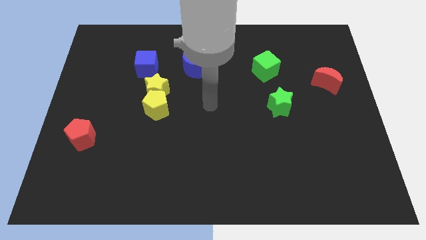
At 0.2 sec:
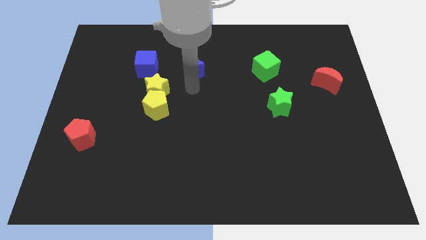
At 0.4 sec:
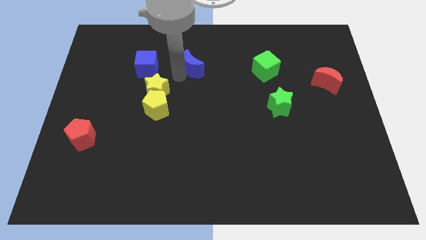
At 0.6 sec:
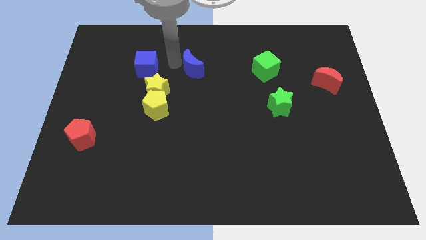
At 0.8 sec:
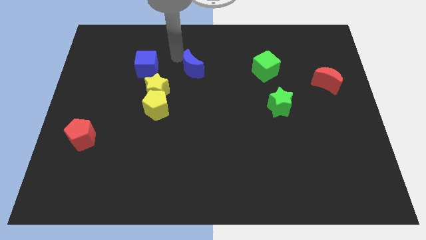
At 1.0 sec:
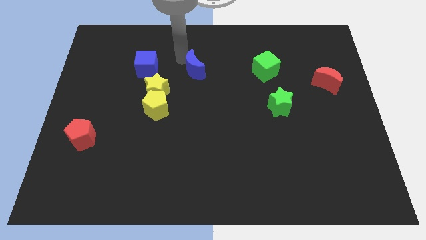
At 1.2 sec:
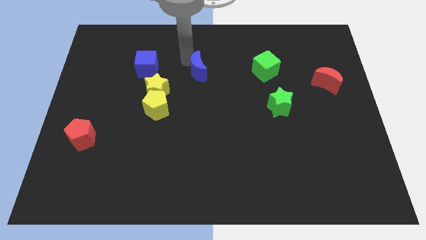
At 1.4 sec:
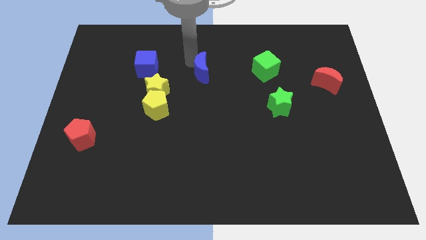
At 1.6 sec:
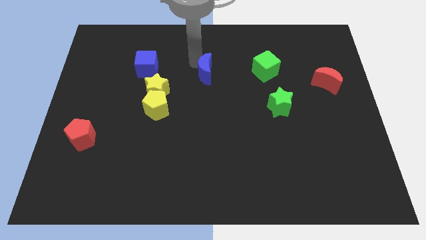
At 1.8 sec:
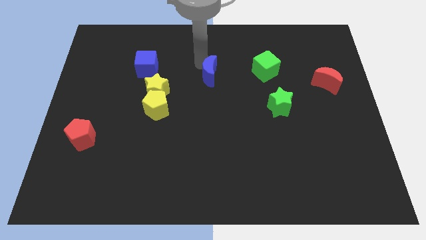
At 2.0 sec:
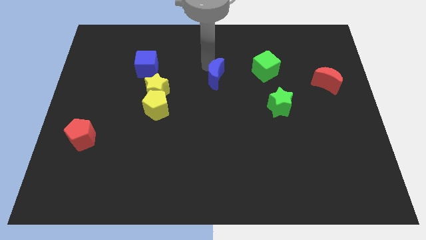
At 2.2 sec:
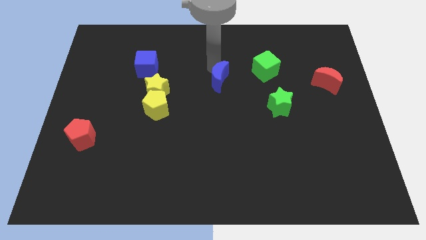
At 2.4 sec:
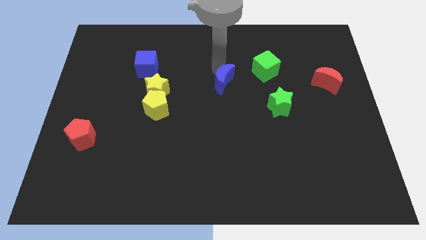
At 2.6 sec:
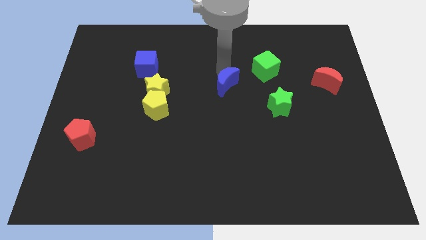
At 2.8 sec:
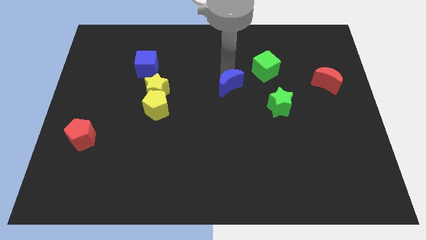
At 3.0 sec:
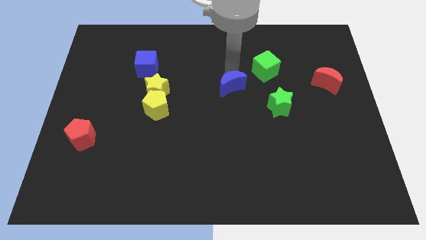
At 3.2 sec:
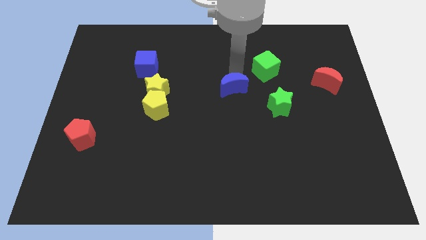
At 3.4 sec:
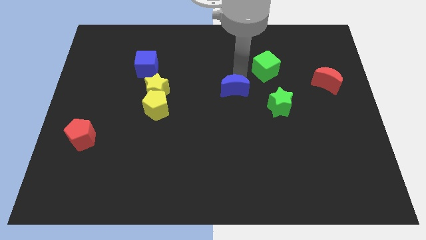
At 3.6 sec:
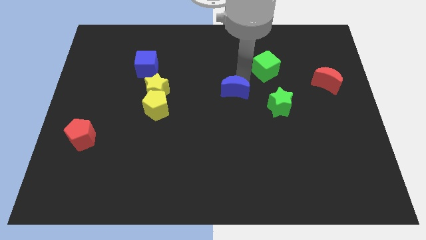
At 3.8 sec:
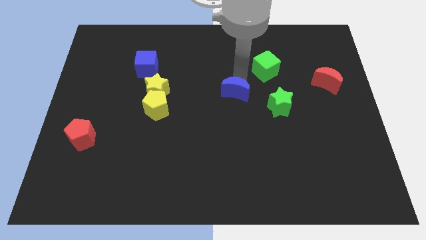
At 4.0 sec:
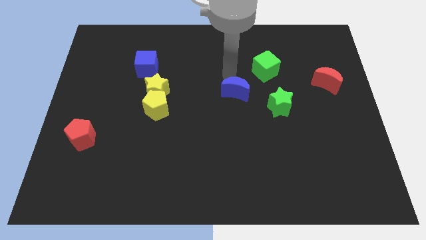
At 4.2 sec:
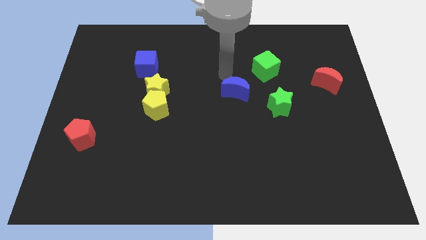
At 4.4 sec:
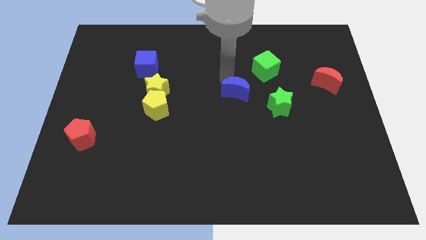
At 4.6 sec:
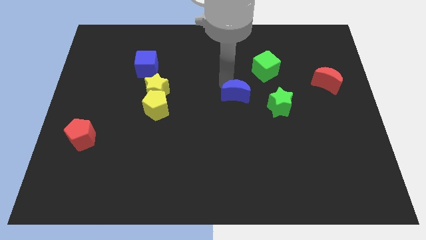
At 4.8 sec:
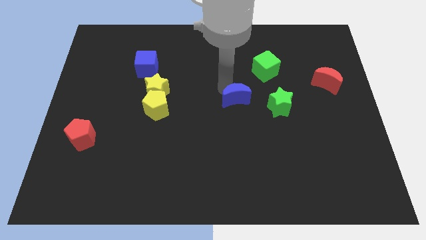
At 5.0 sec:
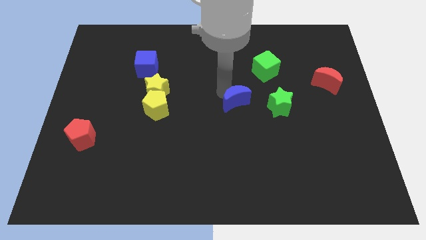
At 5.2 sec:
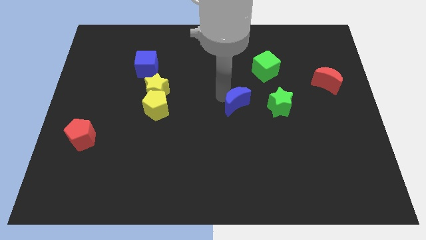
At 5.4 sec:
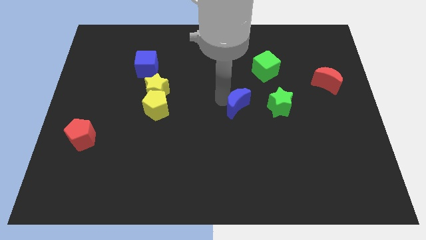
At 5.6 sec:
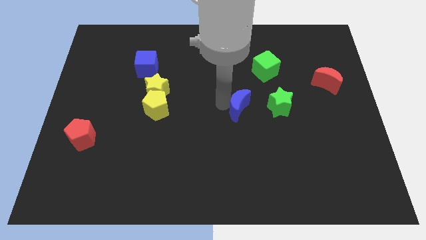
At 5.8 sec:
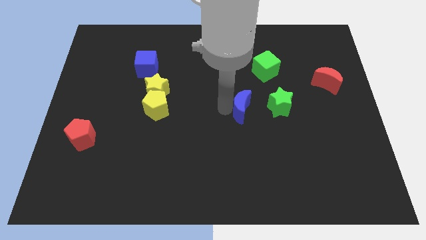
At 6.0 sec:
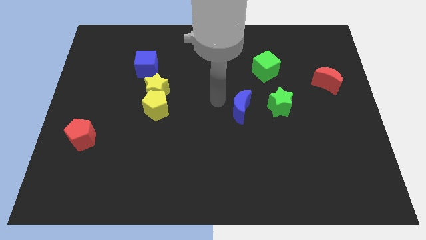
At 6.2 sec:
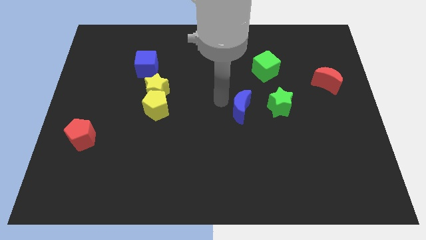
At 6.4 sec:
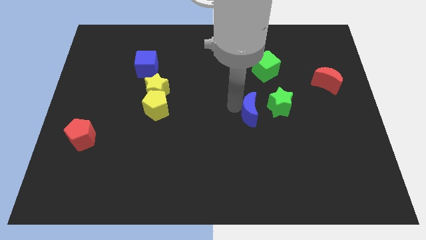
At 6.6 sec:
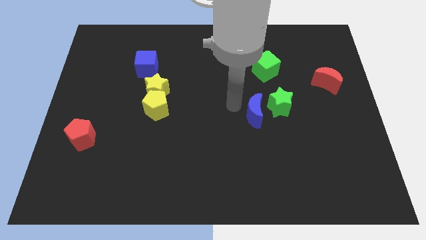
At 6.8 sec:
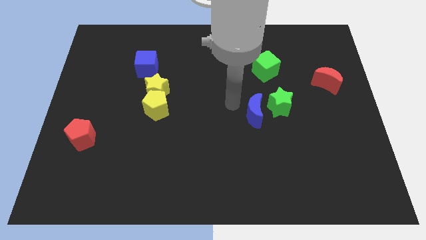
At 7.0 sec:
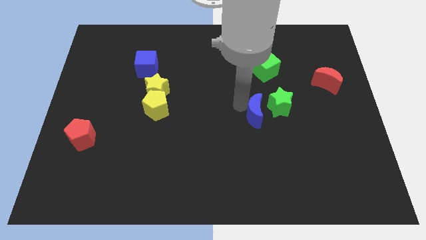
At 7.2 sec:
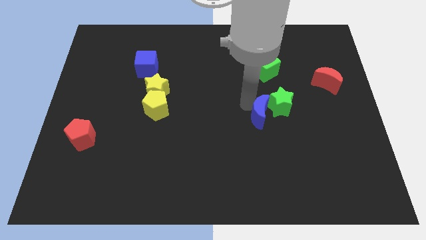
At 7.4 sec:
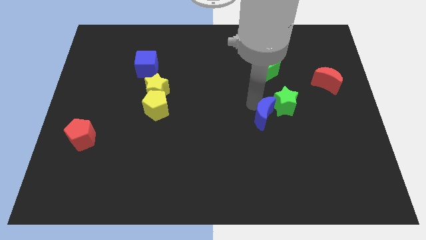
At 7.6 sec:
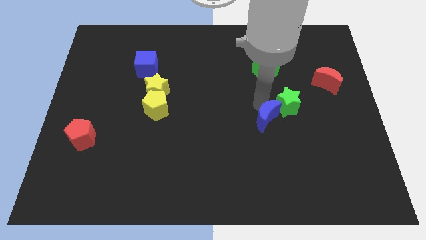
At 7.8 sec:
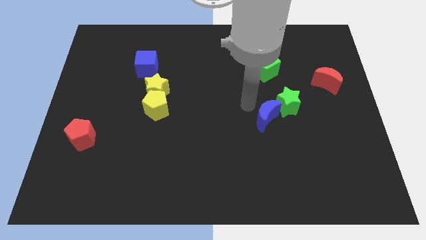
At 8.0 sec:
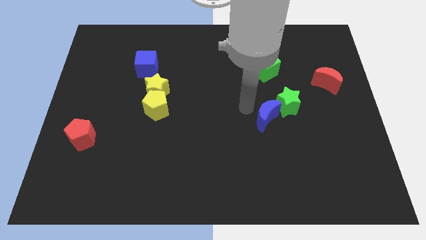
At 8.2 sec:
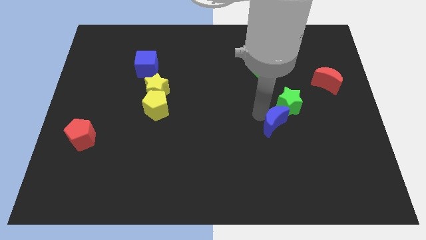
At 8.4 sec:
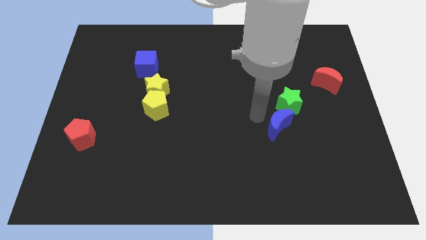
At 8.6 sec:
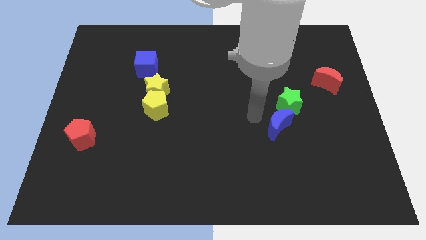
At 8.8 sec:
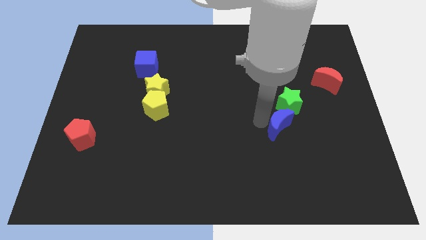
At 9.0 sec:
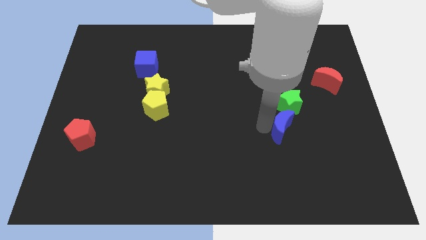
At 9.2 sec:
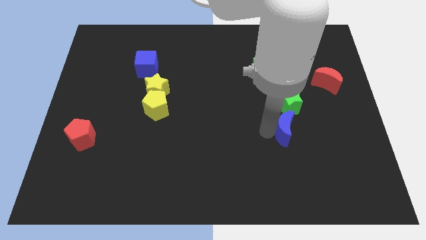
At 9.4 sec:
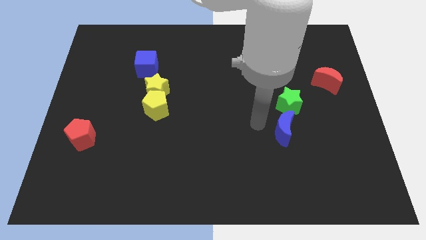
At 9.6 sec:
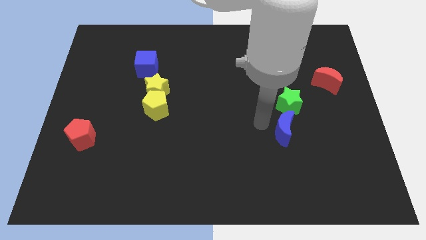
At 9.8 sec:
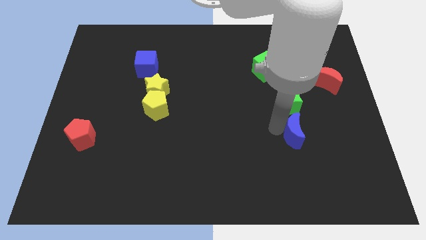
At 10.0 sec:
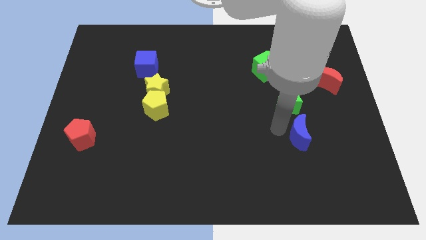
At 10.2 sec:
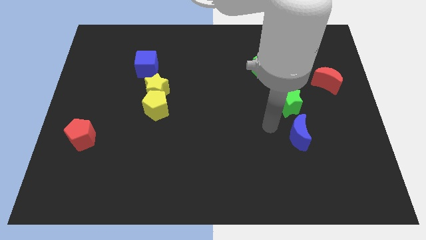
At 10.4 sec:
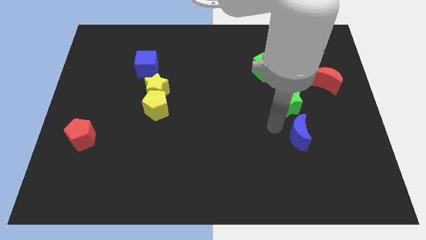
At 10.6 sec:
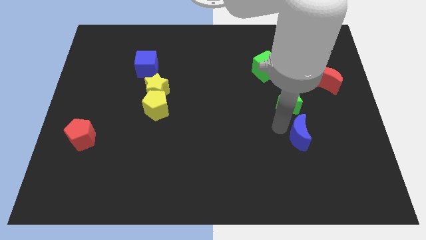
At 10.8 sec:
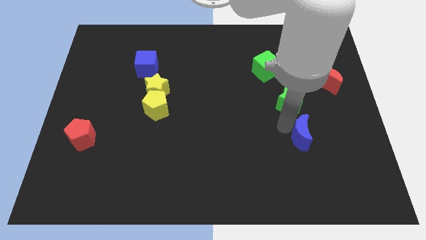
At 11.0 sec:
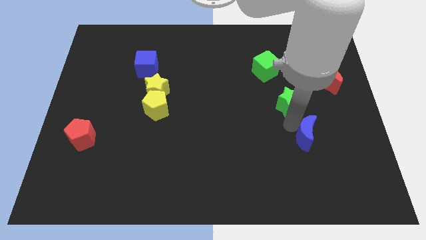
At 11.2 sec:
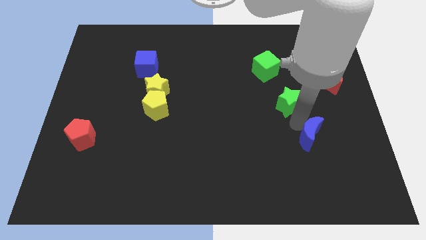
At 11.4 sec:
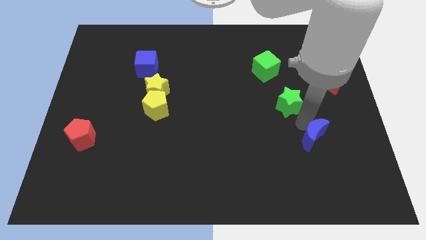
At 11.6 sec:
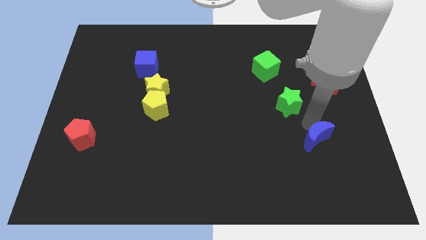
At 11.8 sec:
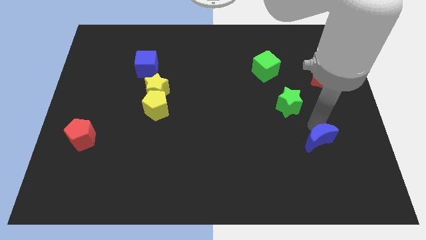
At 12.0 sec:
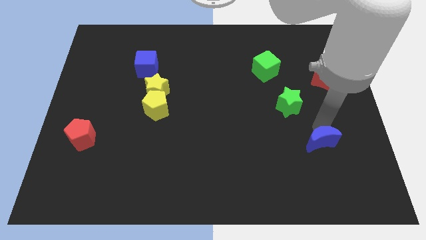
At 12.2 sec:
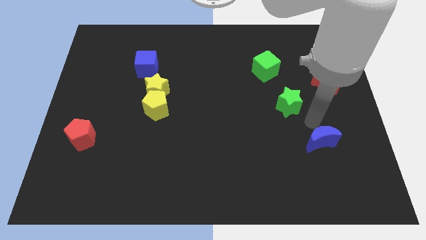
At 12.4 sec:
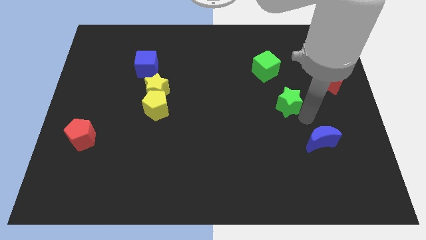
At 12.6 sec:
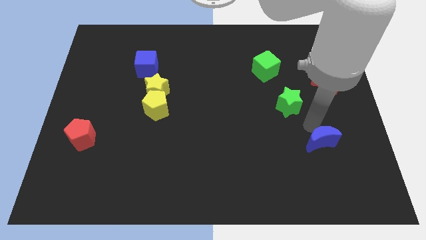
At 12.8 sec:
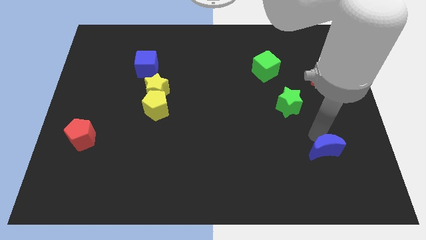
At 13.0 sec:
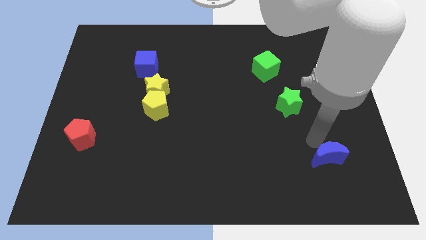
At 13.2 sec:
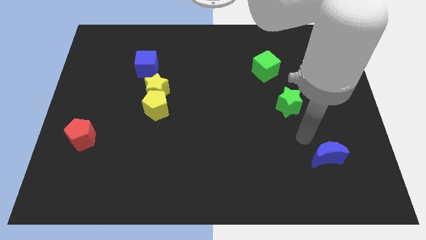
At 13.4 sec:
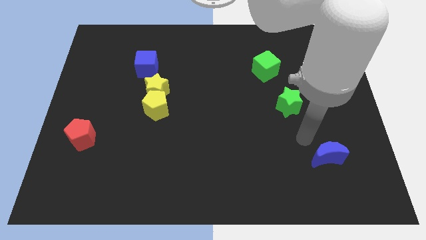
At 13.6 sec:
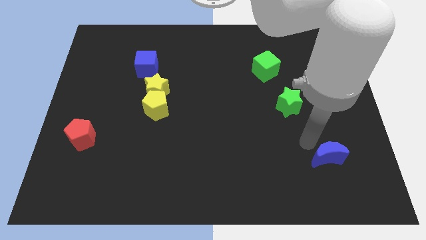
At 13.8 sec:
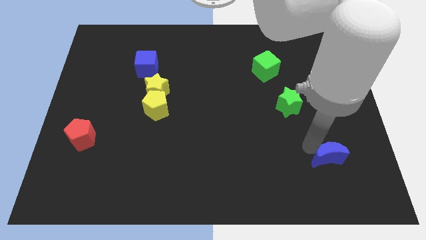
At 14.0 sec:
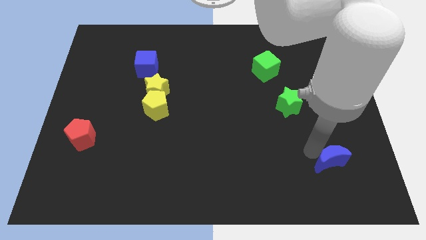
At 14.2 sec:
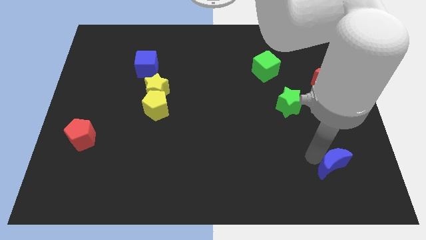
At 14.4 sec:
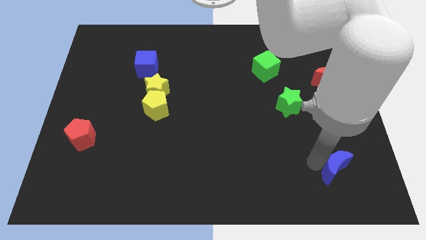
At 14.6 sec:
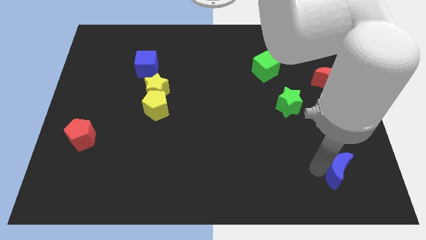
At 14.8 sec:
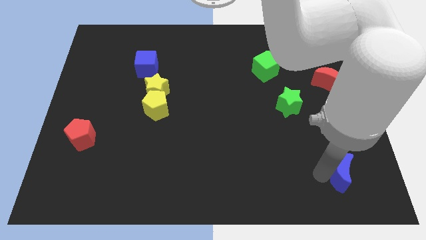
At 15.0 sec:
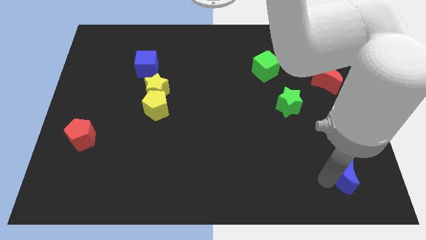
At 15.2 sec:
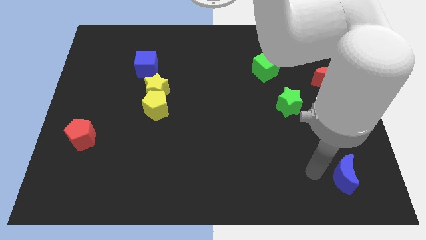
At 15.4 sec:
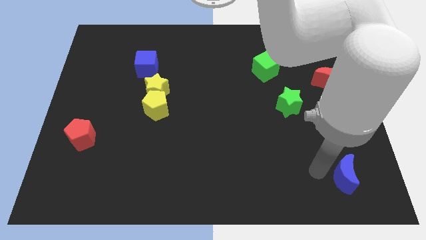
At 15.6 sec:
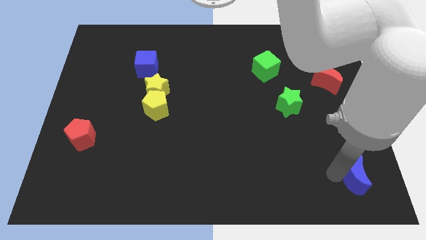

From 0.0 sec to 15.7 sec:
put the blue moon to the bottom right
